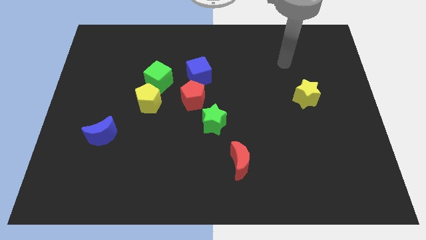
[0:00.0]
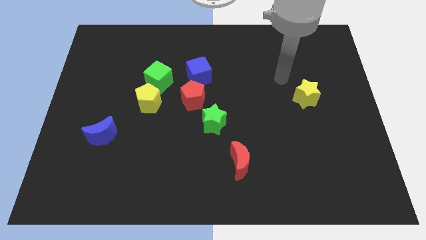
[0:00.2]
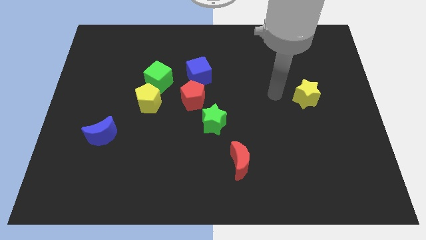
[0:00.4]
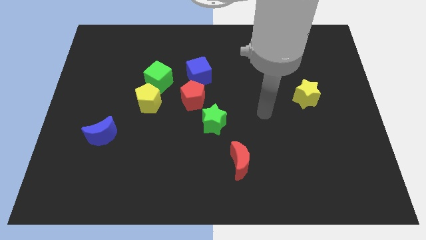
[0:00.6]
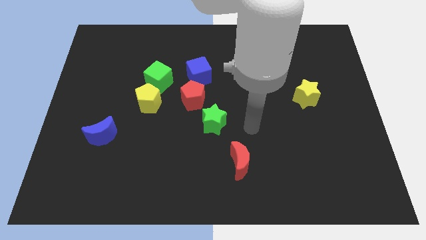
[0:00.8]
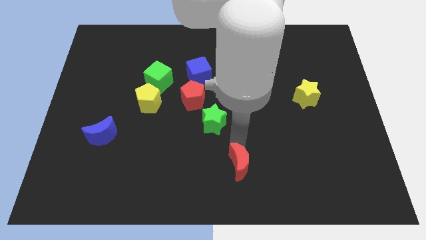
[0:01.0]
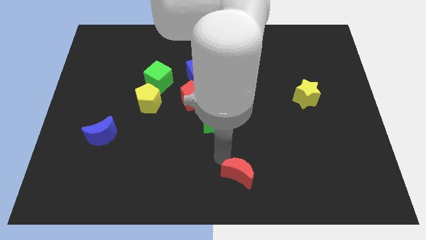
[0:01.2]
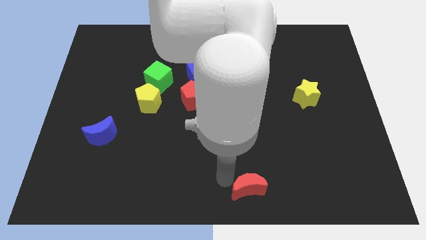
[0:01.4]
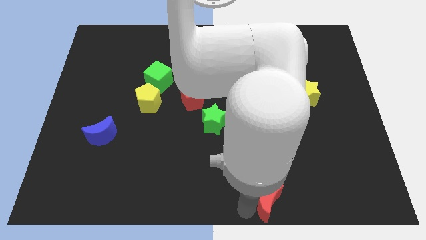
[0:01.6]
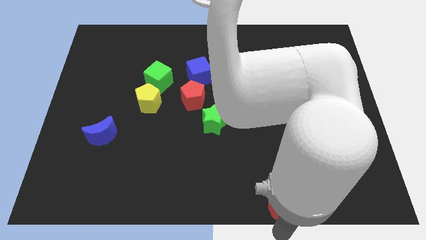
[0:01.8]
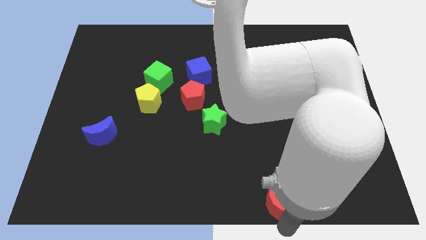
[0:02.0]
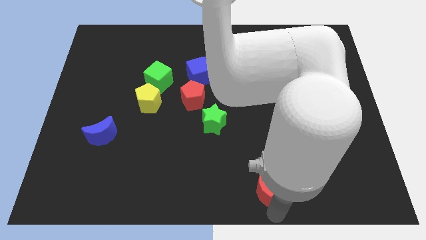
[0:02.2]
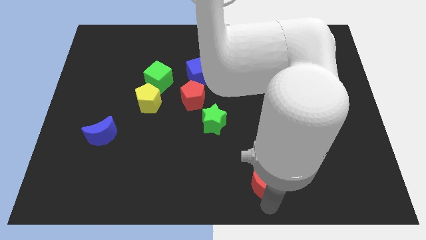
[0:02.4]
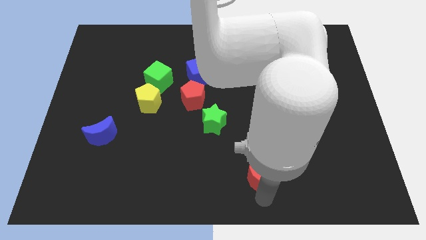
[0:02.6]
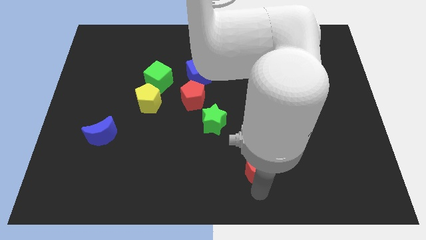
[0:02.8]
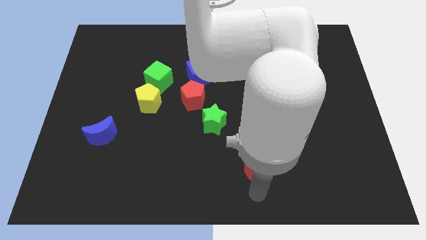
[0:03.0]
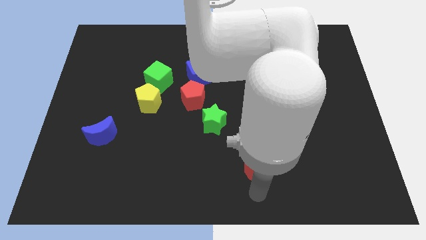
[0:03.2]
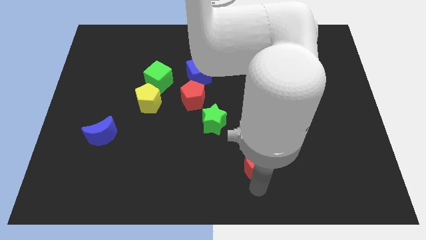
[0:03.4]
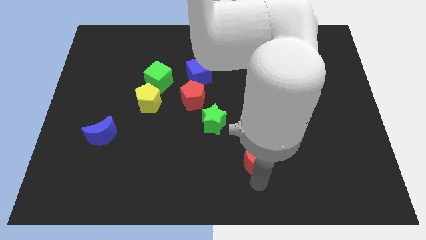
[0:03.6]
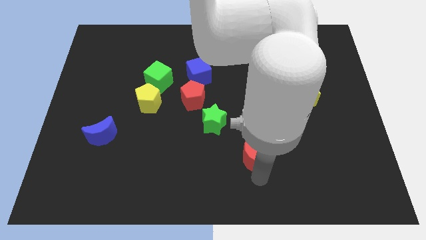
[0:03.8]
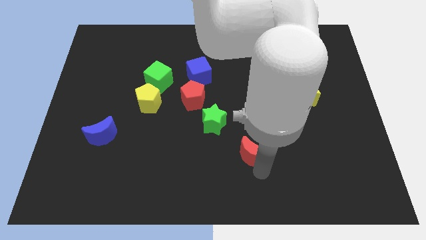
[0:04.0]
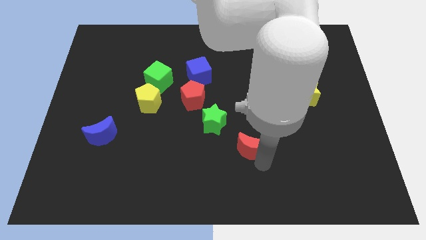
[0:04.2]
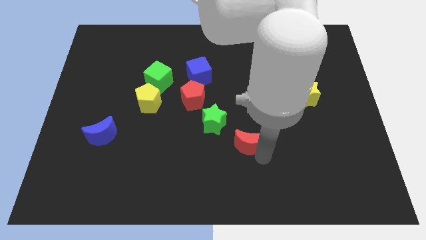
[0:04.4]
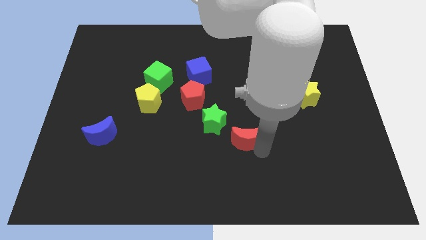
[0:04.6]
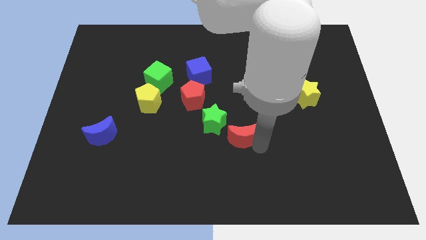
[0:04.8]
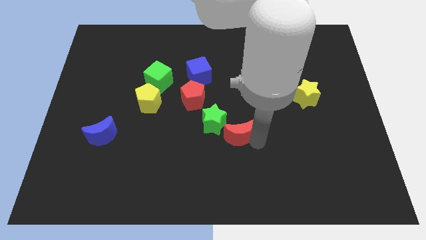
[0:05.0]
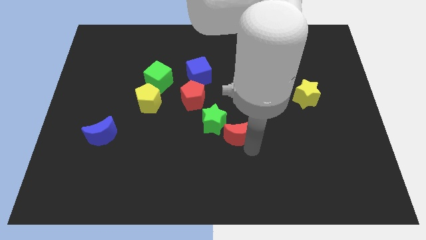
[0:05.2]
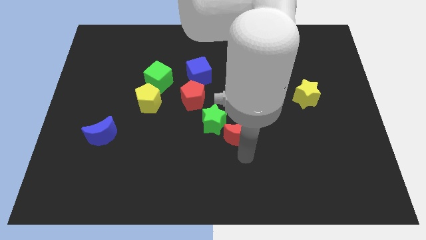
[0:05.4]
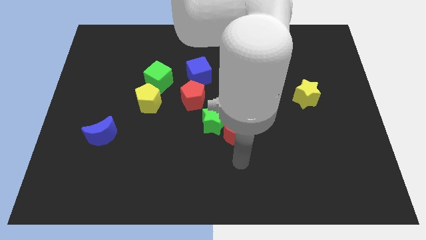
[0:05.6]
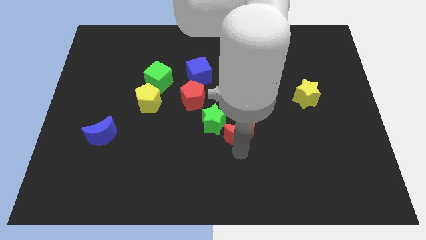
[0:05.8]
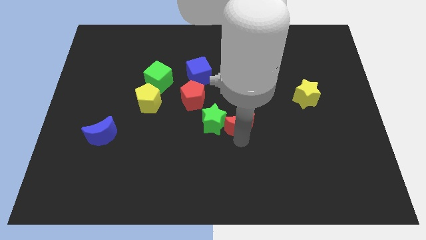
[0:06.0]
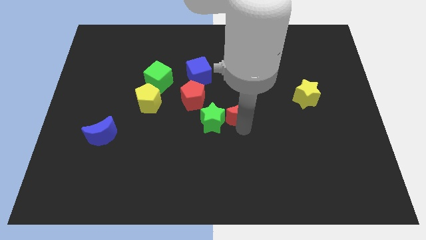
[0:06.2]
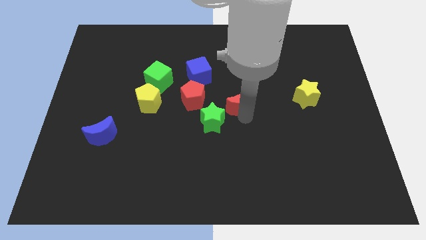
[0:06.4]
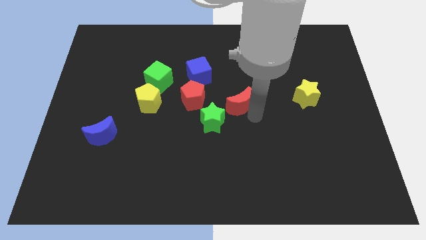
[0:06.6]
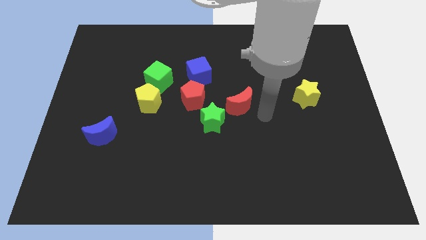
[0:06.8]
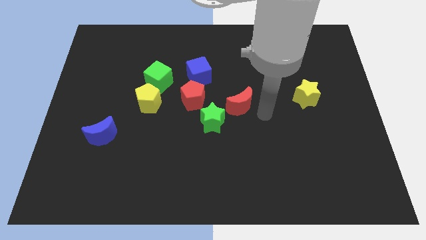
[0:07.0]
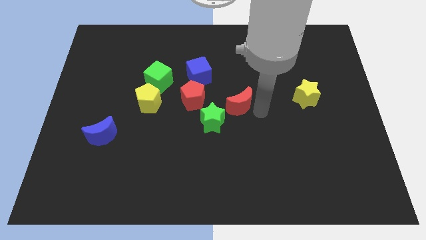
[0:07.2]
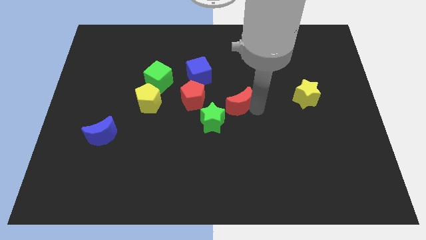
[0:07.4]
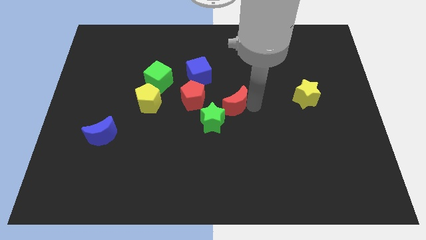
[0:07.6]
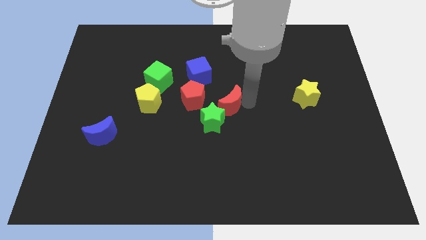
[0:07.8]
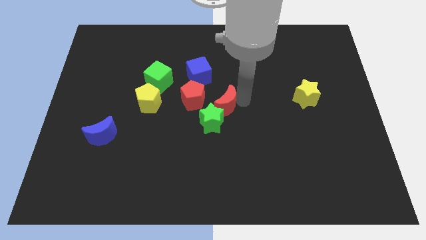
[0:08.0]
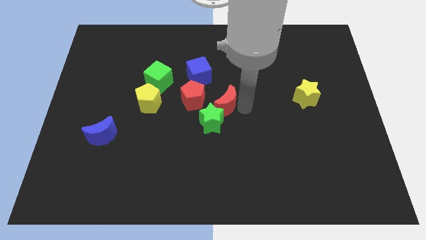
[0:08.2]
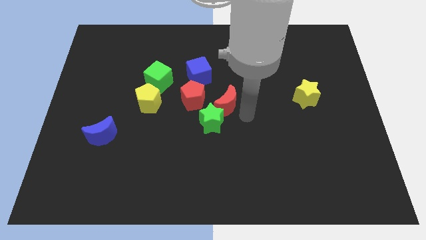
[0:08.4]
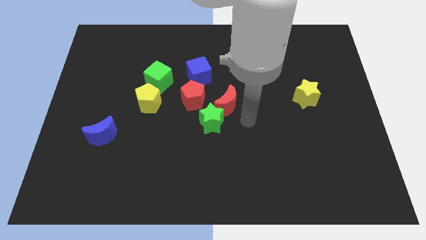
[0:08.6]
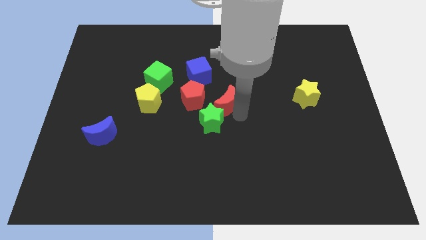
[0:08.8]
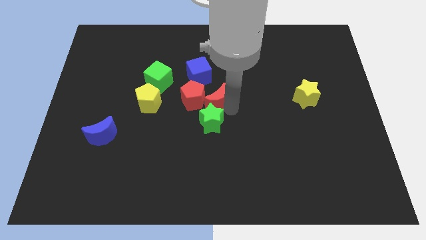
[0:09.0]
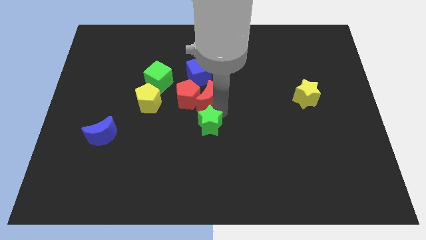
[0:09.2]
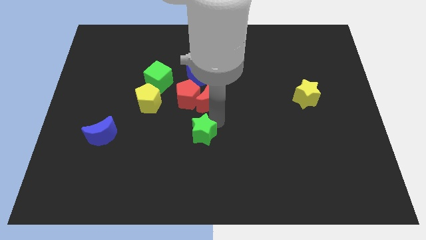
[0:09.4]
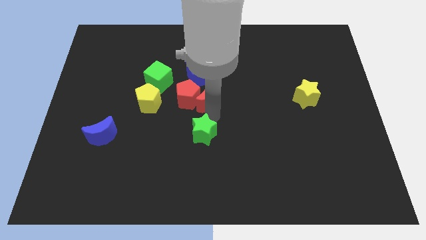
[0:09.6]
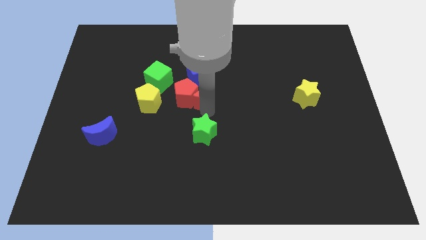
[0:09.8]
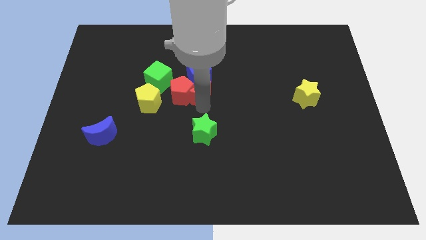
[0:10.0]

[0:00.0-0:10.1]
move the red moon to the blue cube

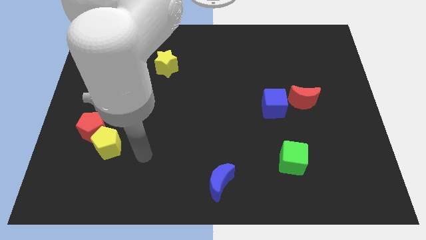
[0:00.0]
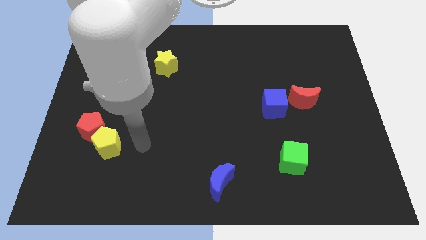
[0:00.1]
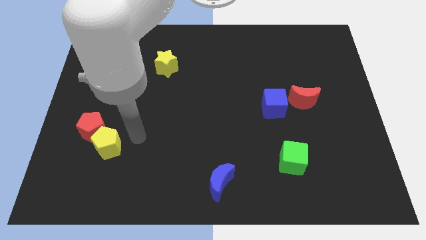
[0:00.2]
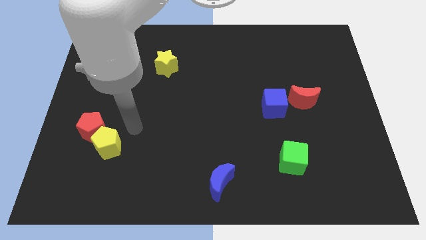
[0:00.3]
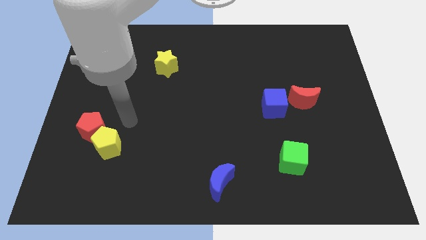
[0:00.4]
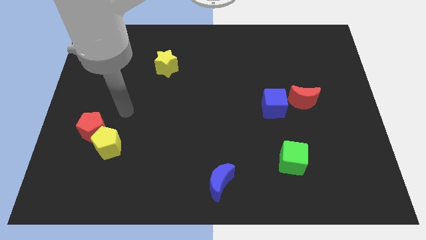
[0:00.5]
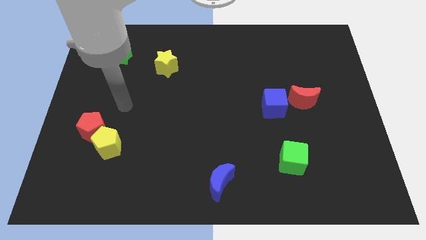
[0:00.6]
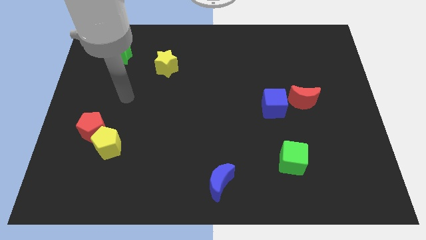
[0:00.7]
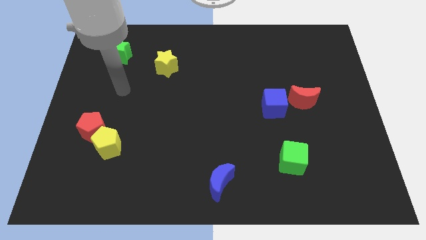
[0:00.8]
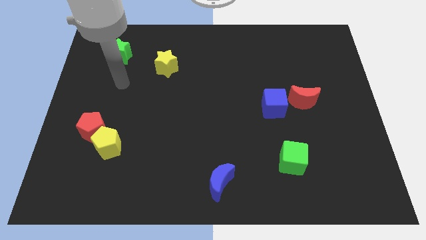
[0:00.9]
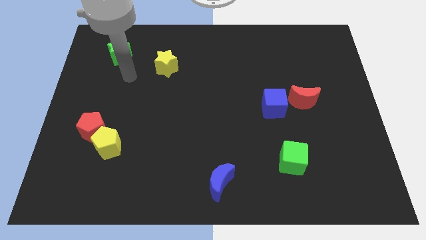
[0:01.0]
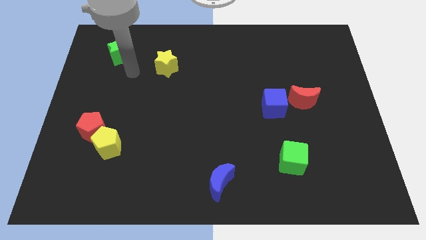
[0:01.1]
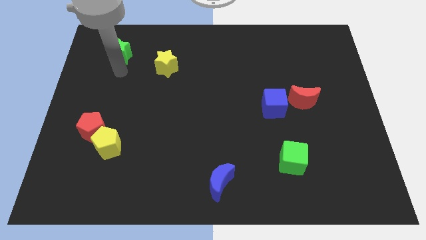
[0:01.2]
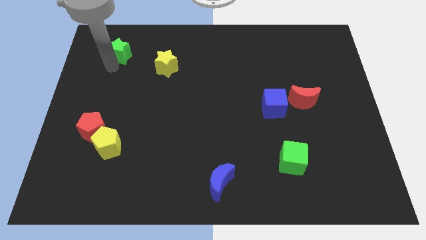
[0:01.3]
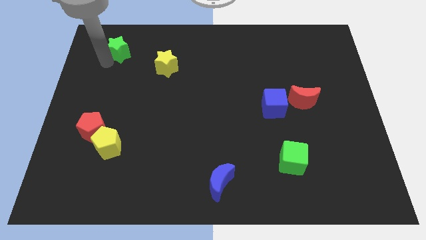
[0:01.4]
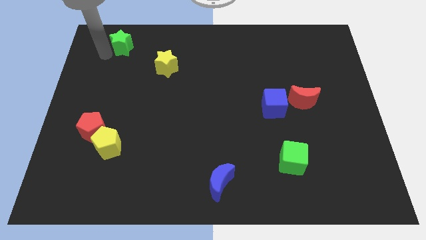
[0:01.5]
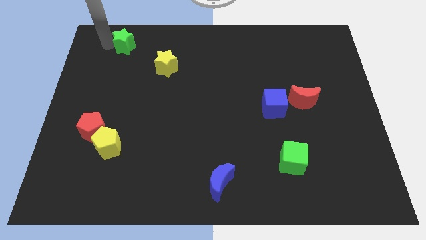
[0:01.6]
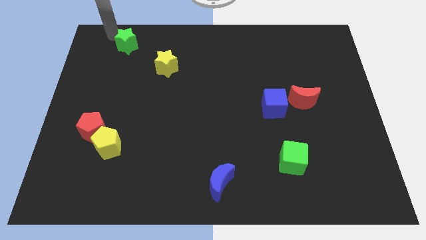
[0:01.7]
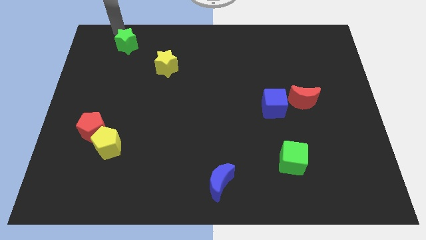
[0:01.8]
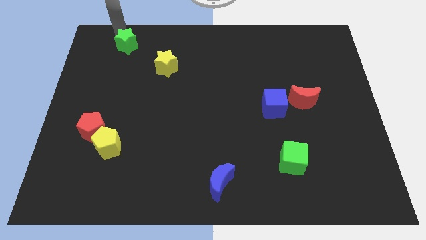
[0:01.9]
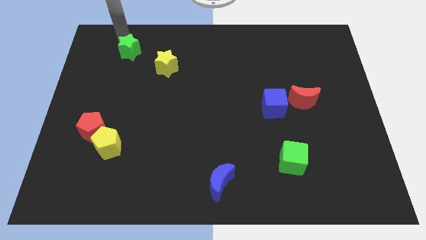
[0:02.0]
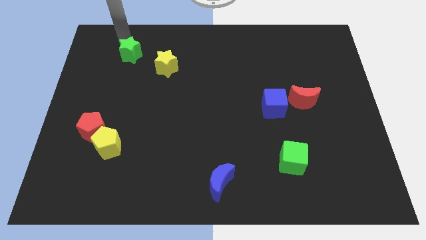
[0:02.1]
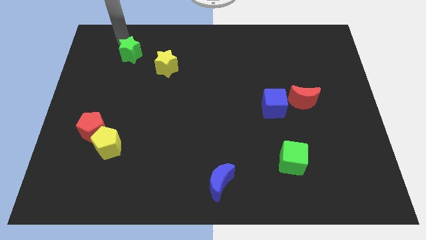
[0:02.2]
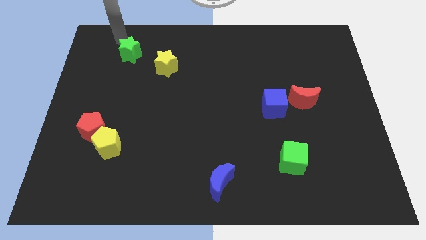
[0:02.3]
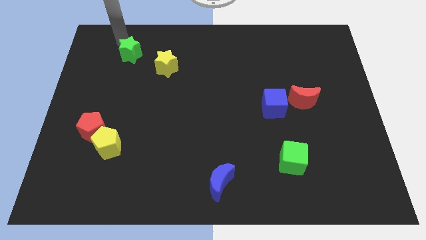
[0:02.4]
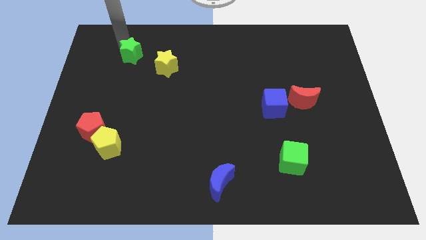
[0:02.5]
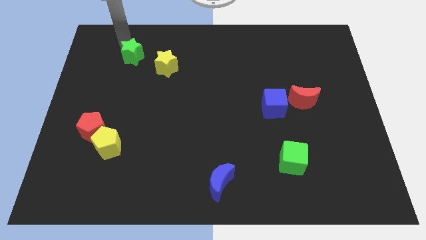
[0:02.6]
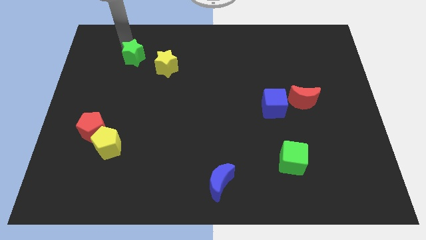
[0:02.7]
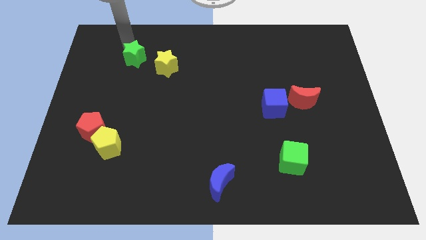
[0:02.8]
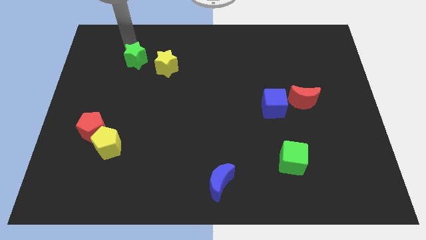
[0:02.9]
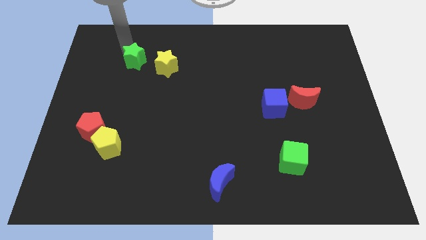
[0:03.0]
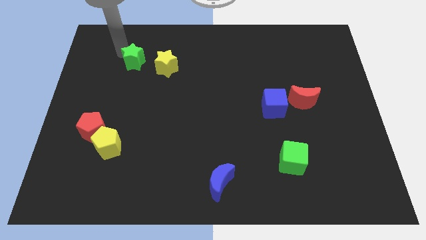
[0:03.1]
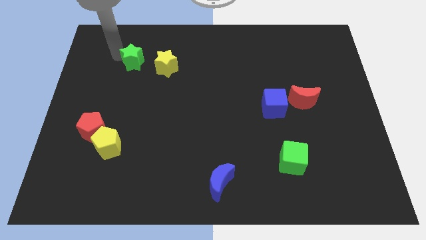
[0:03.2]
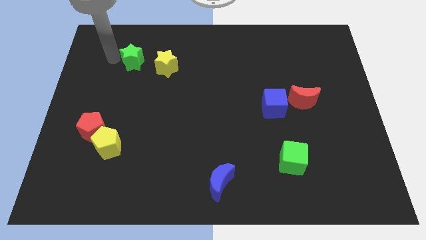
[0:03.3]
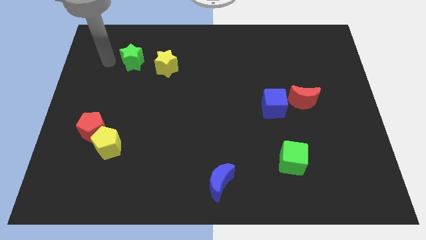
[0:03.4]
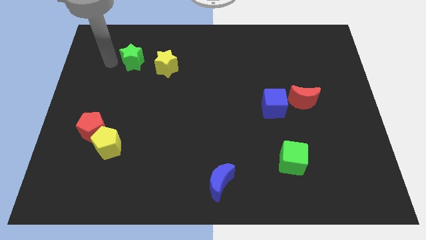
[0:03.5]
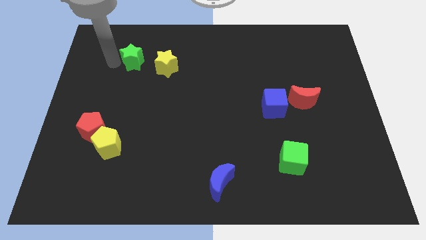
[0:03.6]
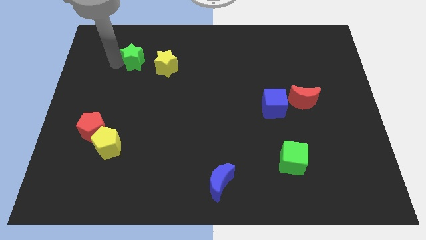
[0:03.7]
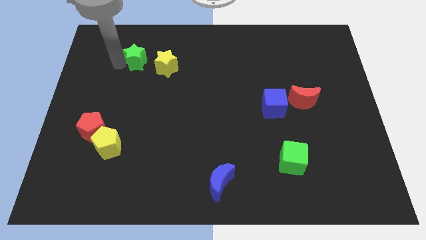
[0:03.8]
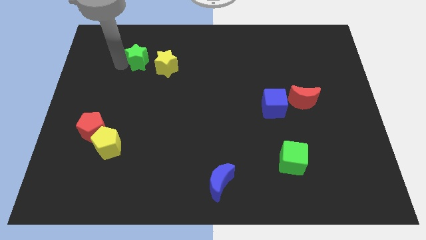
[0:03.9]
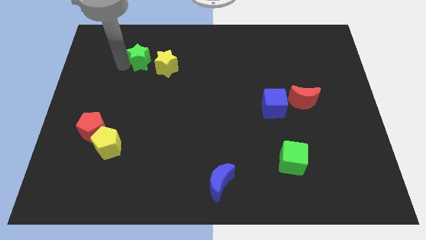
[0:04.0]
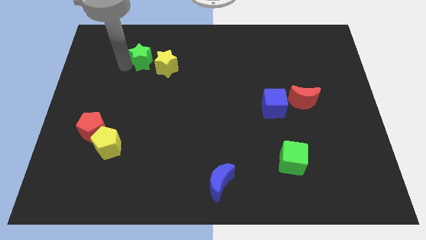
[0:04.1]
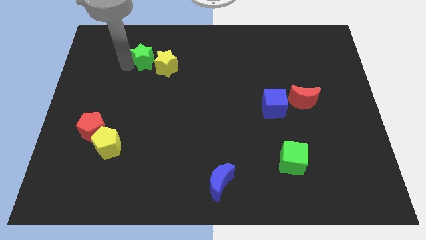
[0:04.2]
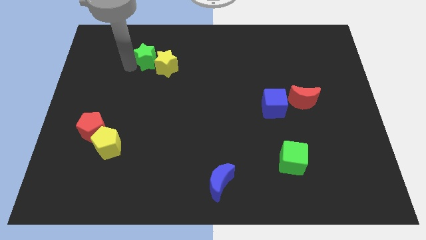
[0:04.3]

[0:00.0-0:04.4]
push the green star towards the yellow star
